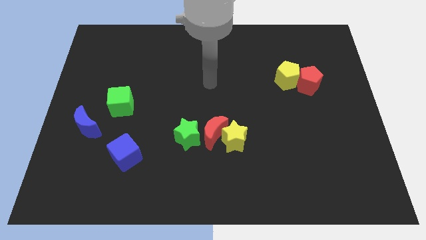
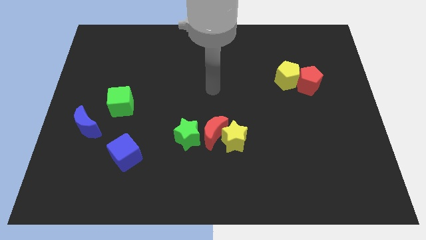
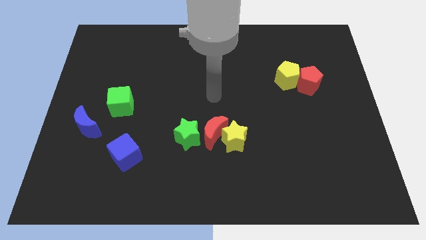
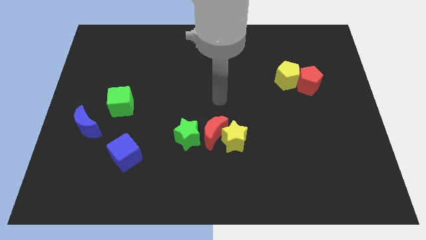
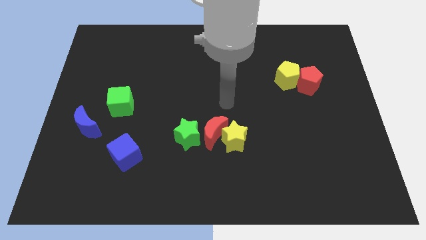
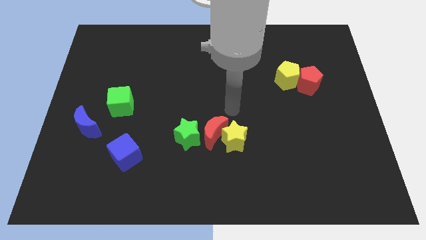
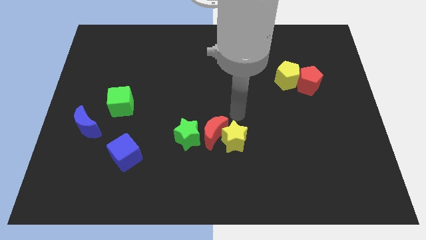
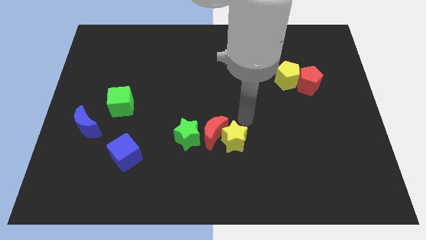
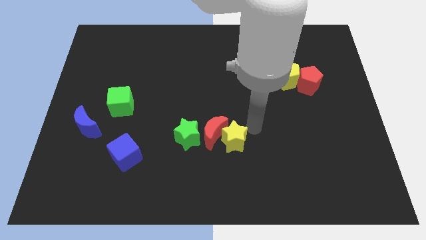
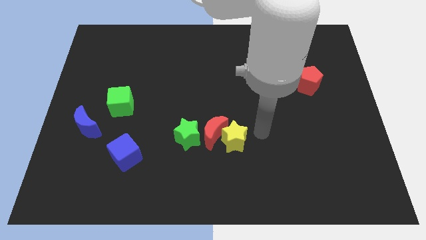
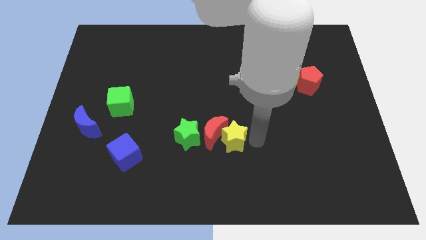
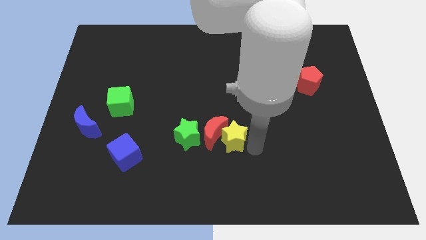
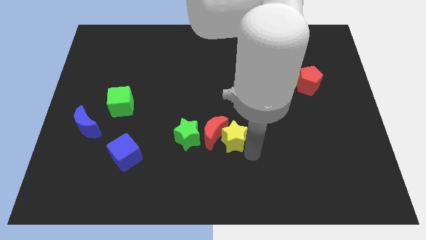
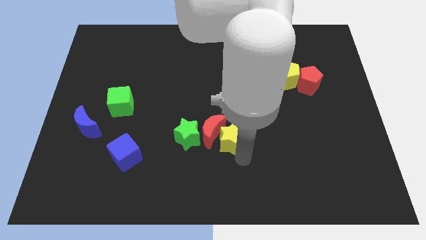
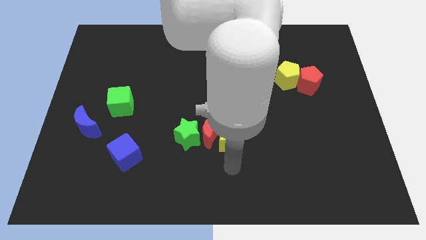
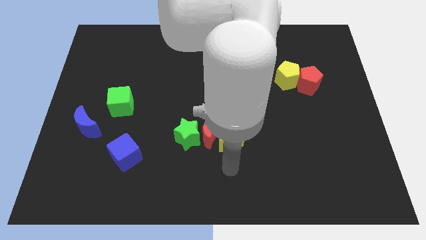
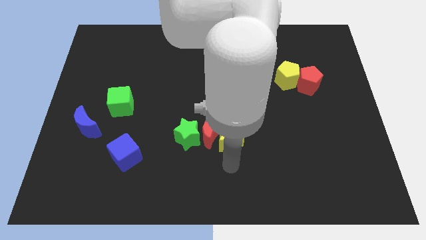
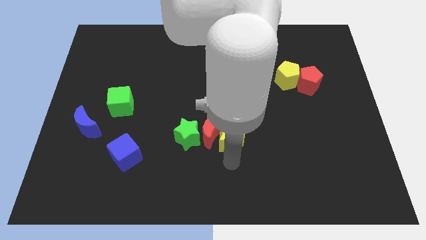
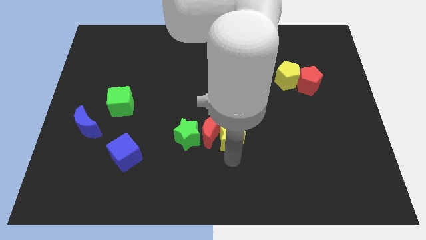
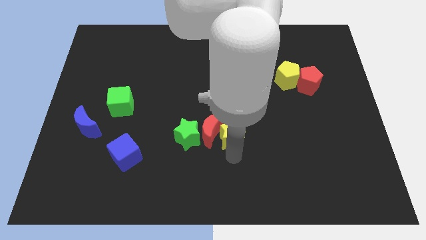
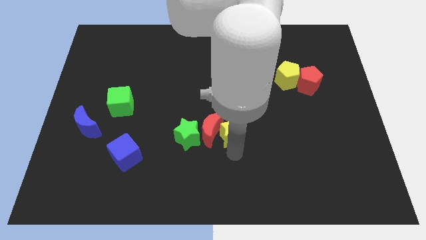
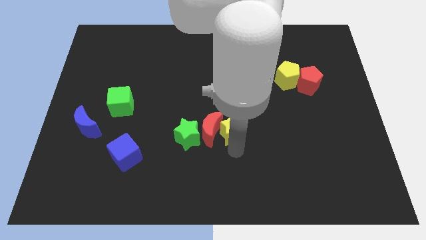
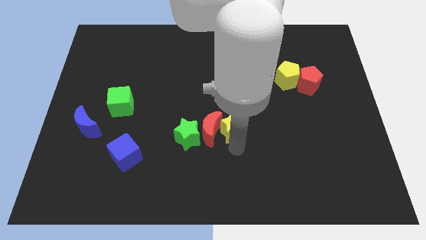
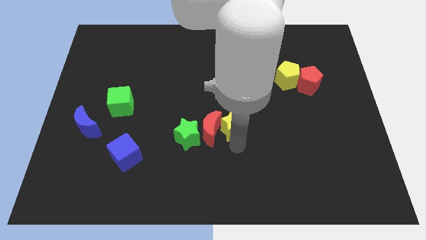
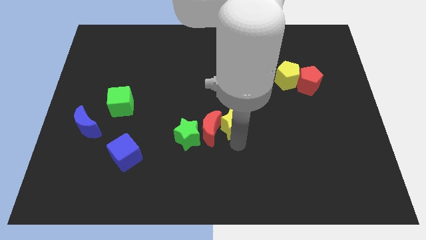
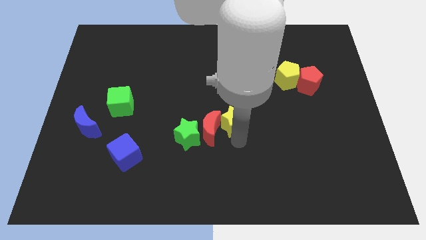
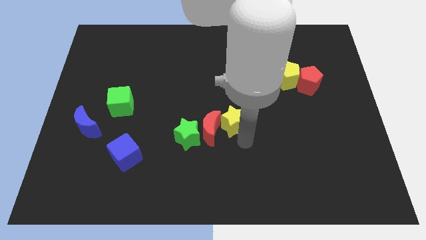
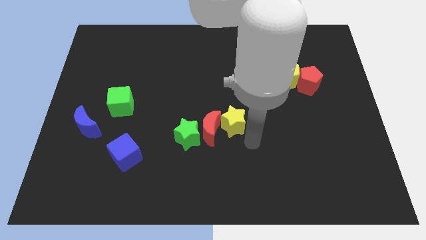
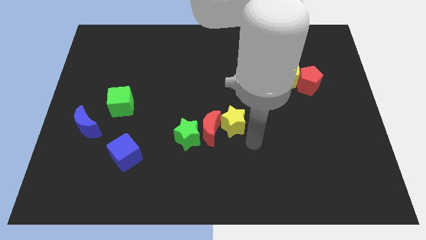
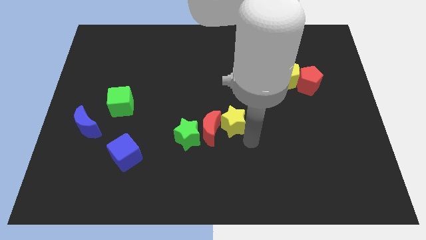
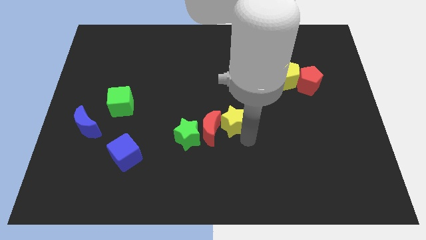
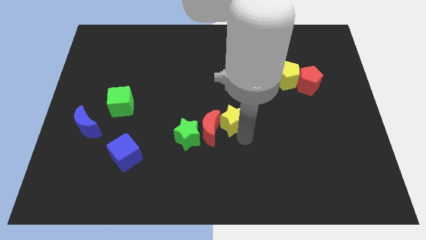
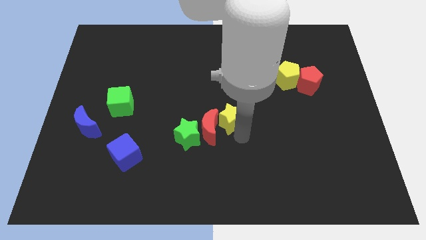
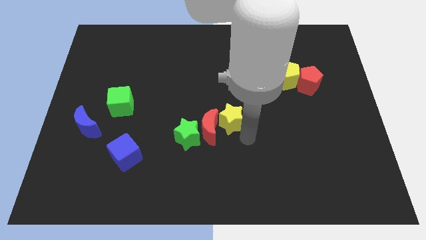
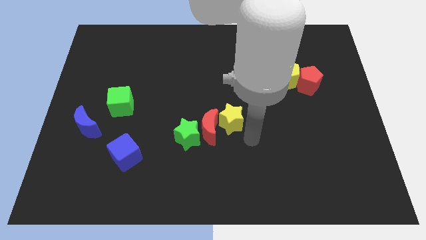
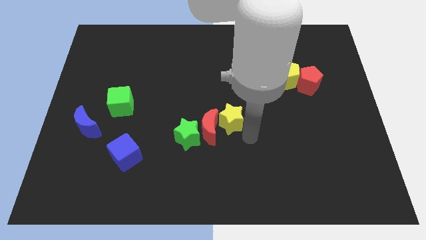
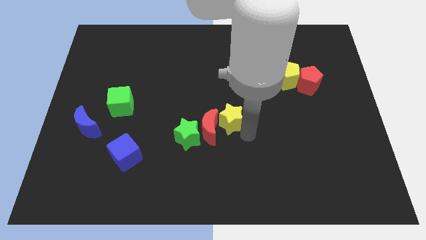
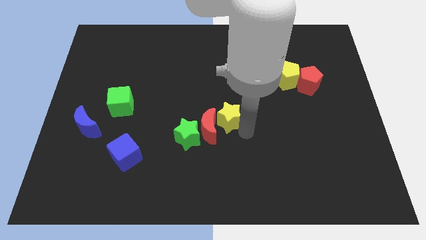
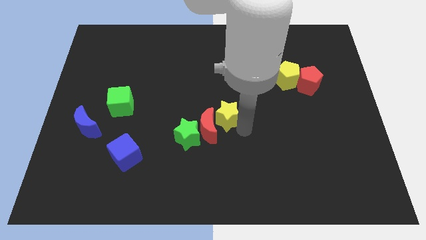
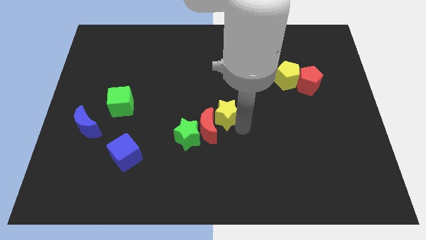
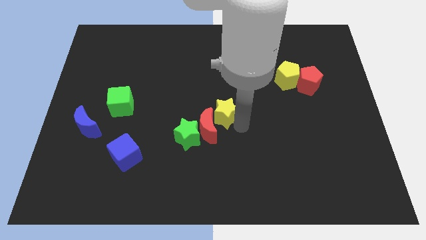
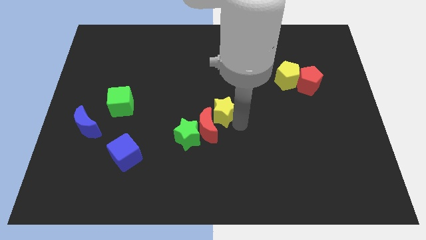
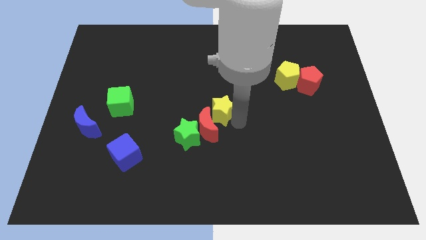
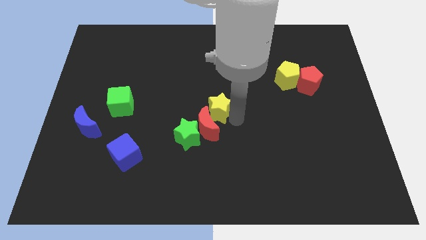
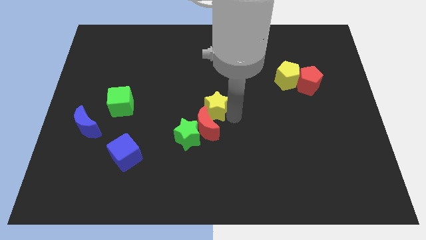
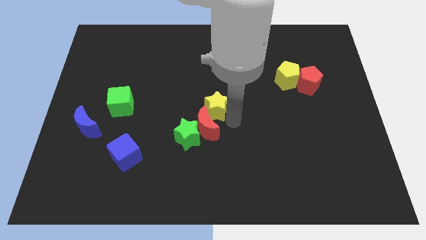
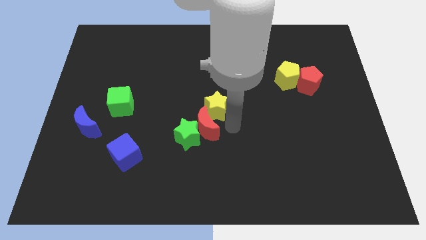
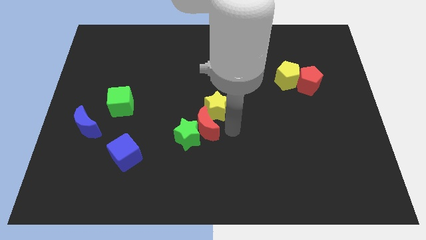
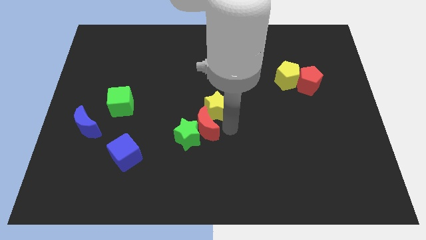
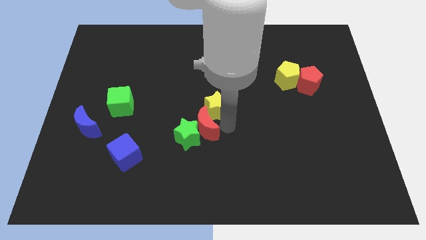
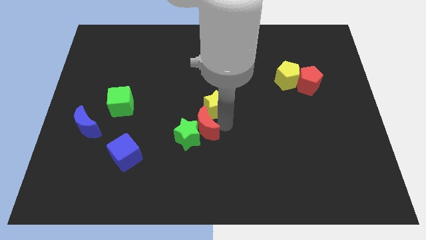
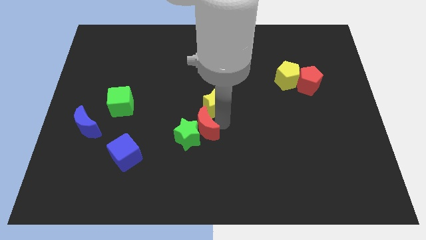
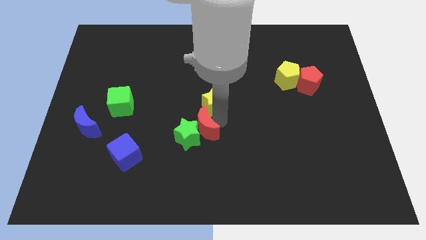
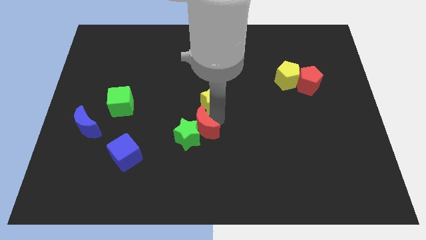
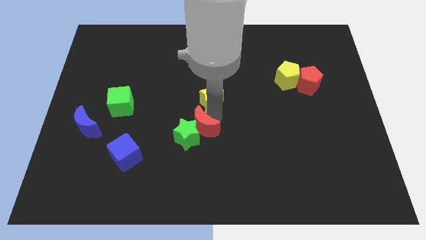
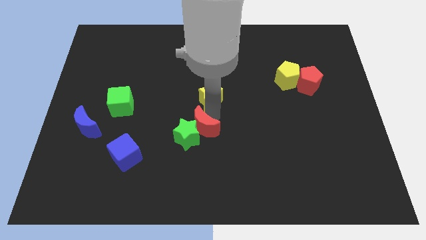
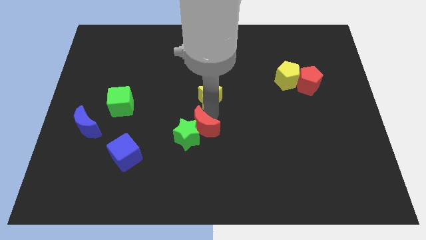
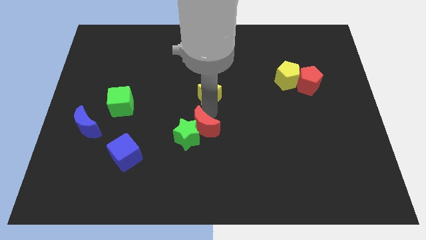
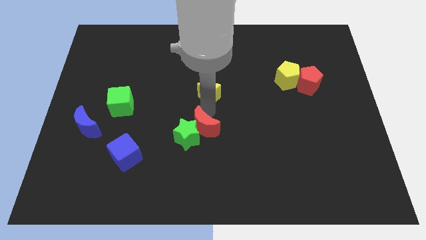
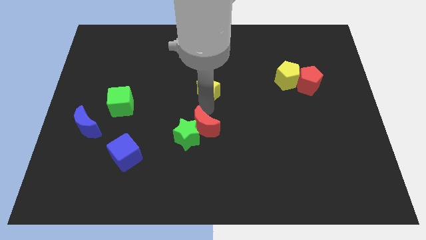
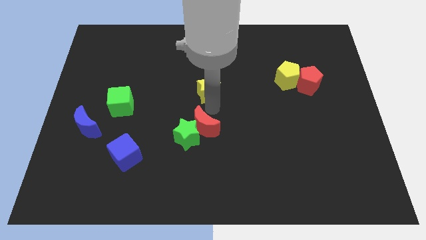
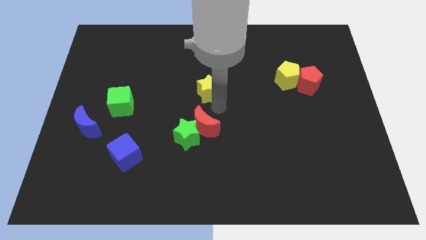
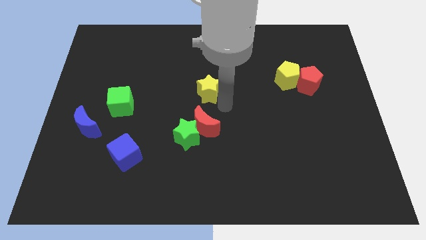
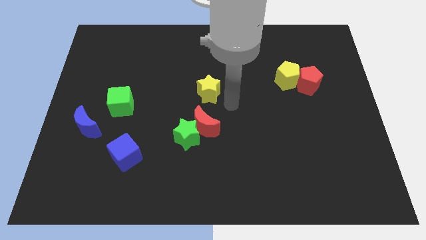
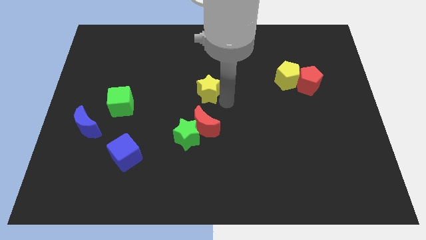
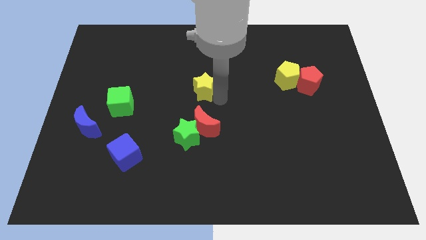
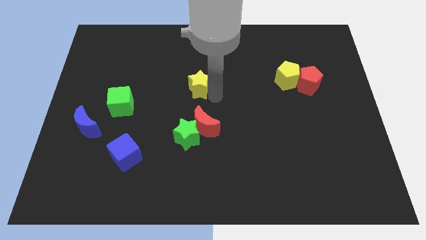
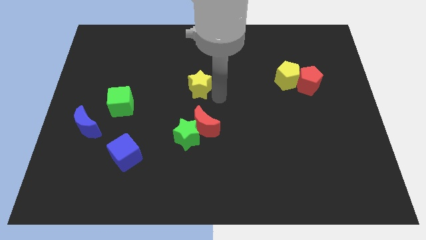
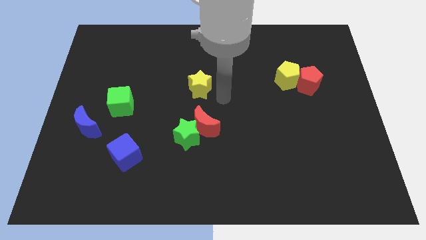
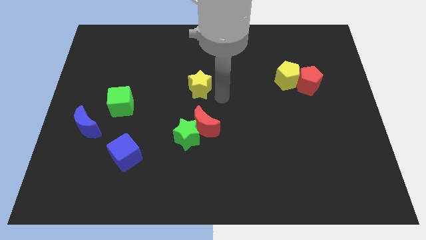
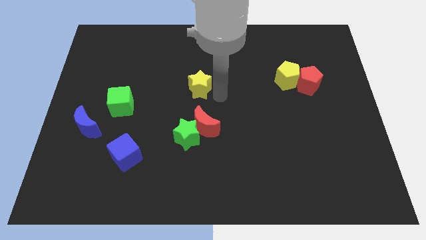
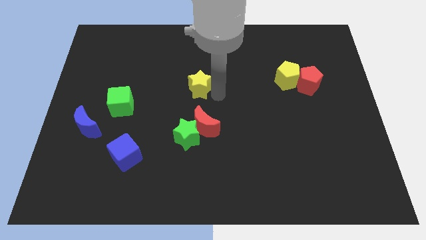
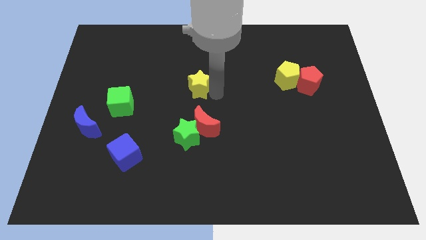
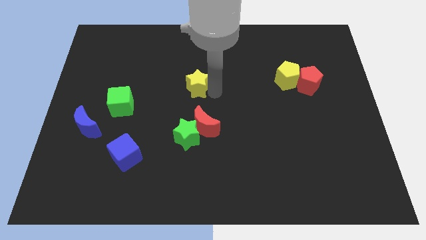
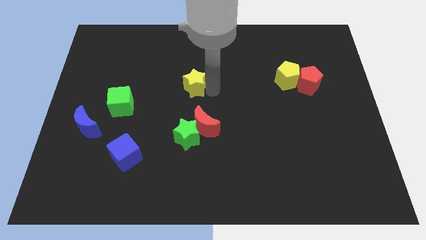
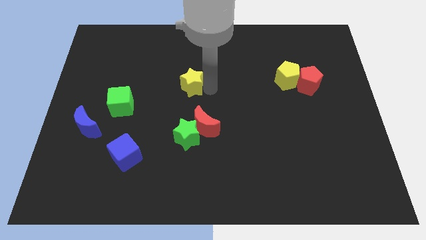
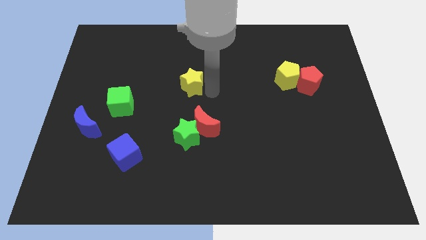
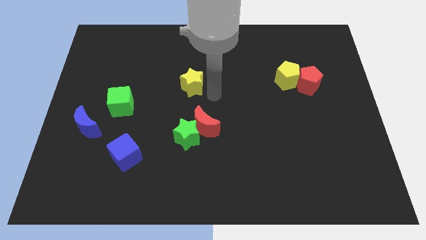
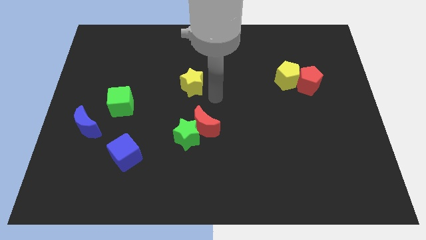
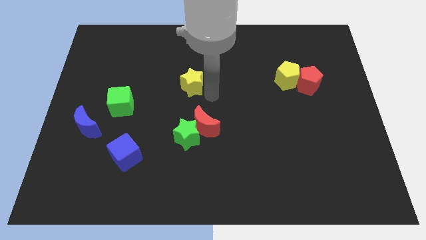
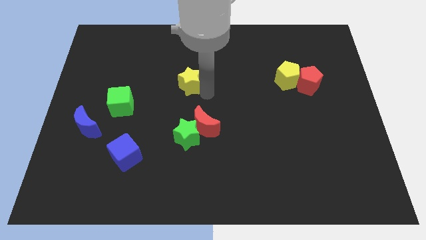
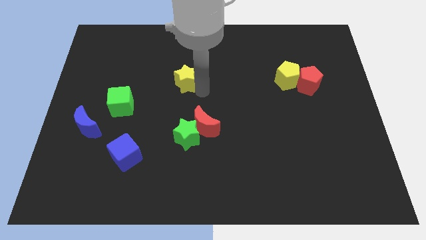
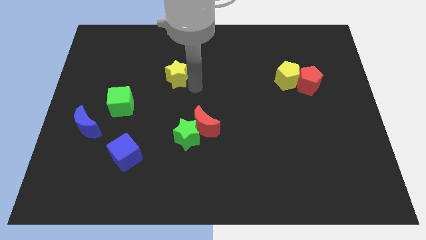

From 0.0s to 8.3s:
slide the yellow star diagonally up and left
